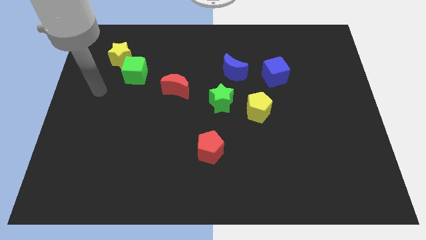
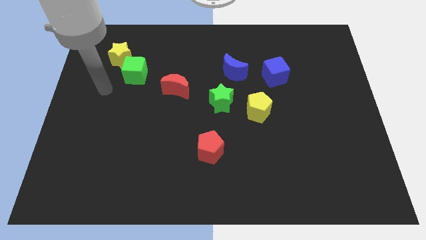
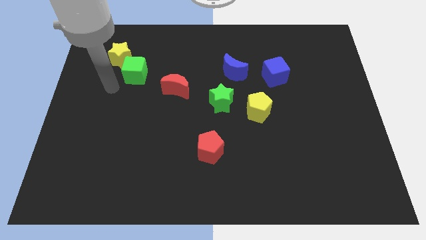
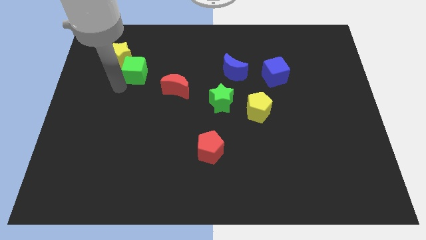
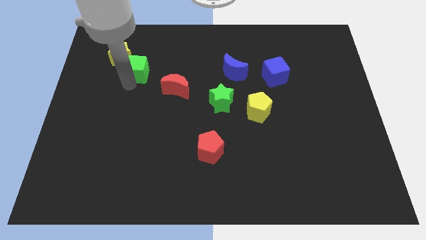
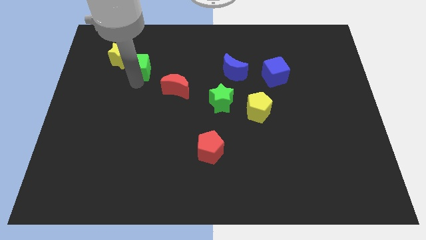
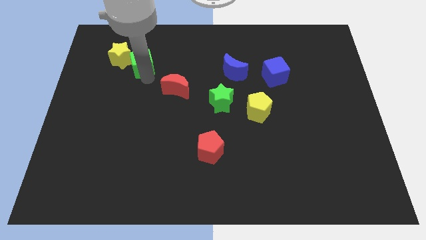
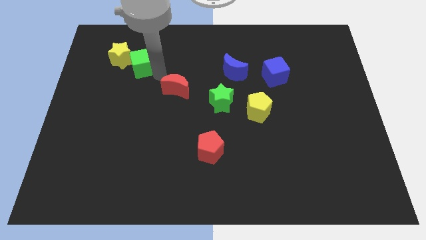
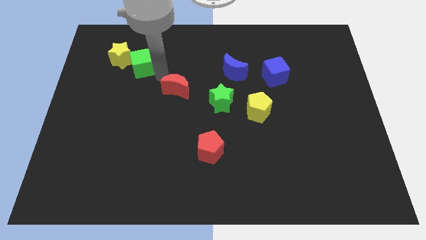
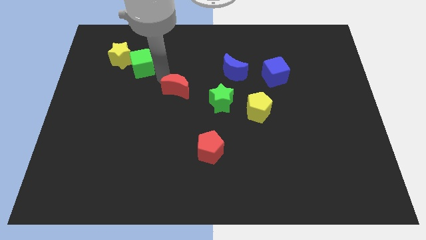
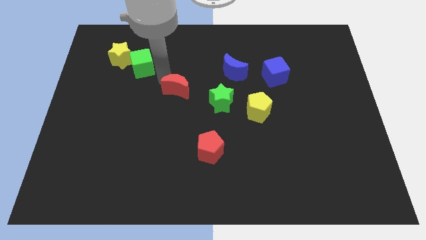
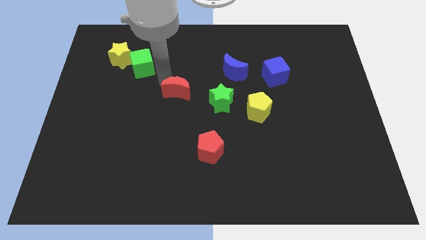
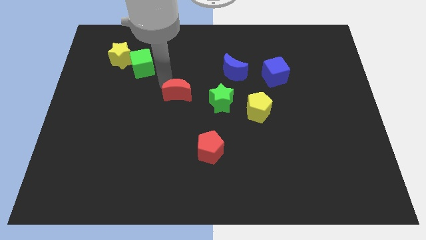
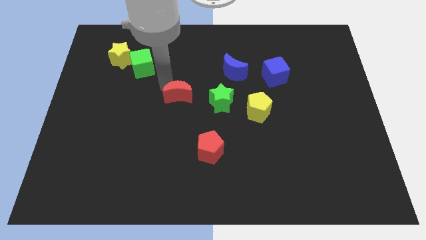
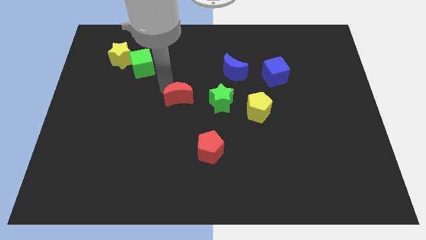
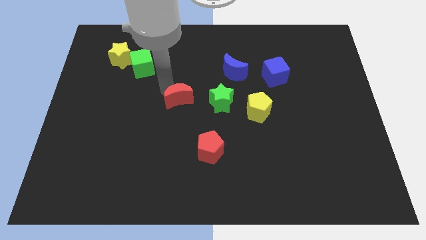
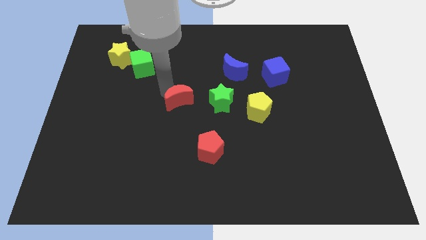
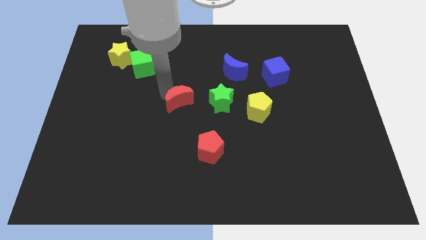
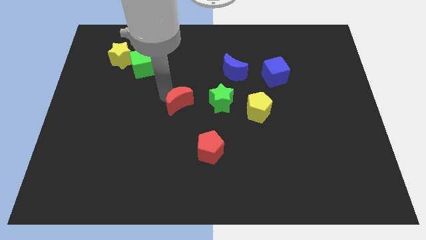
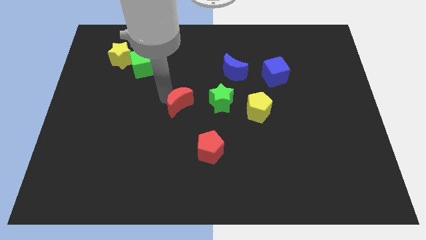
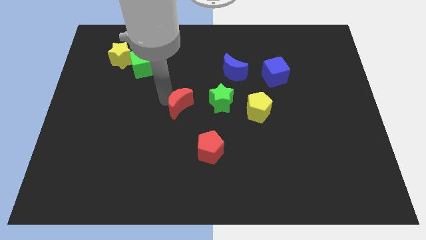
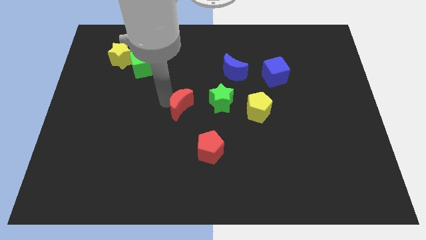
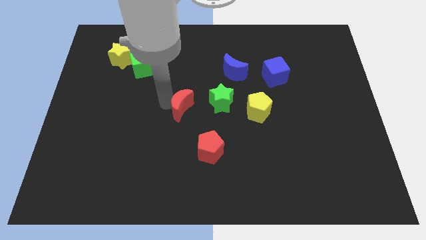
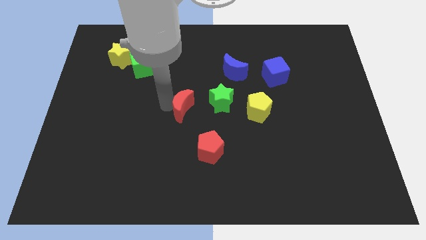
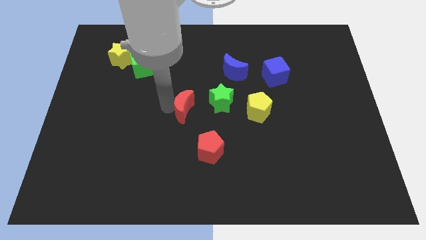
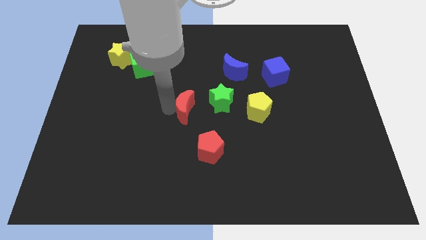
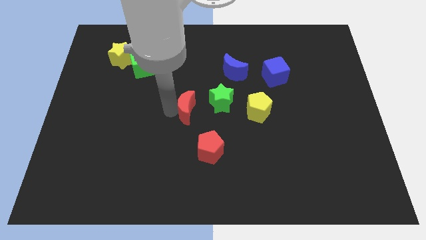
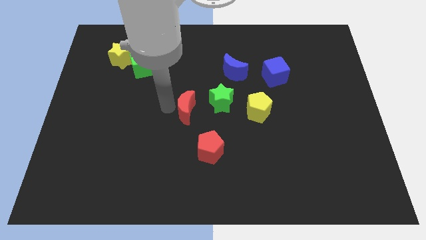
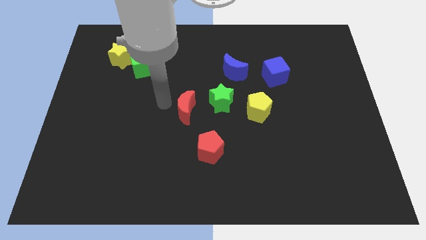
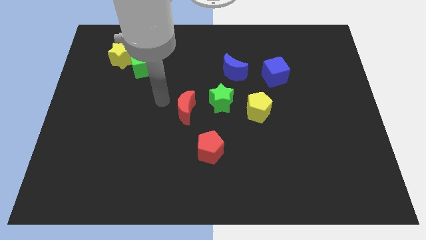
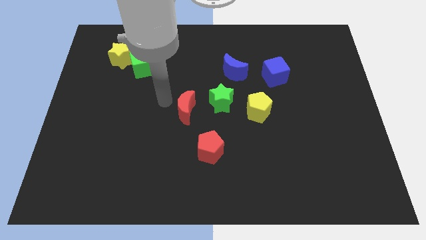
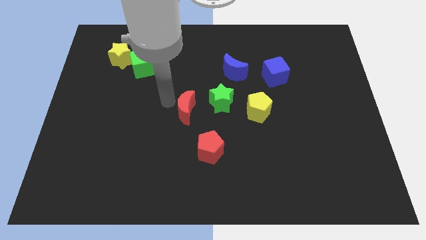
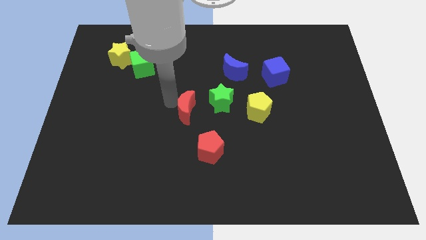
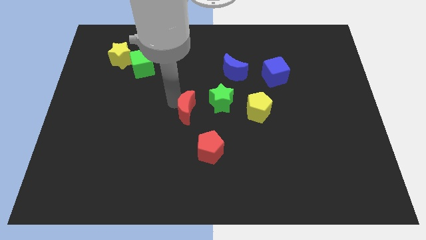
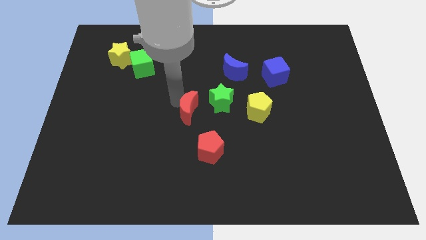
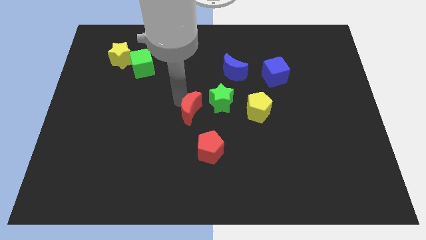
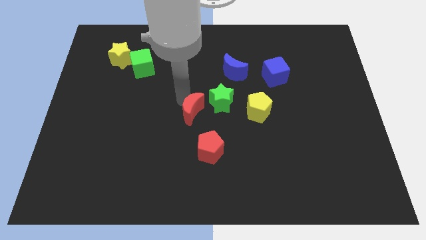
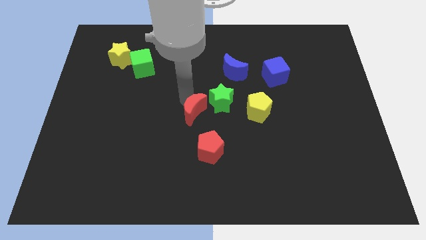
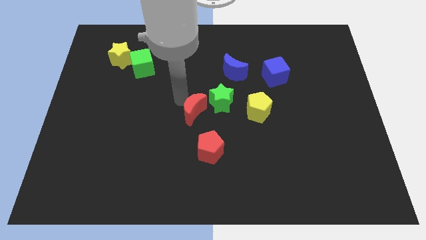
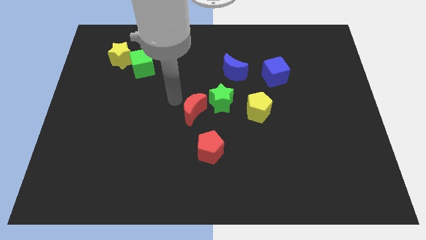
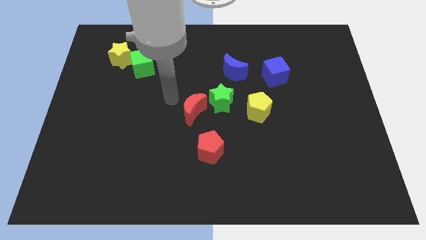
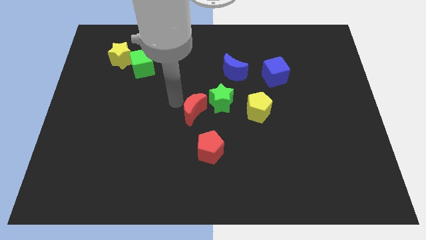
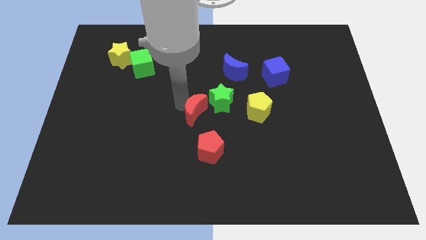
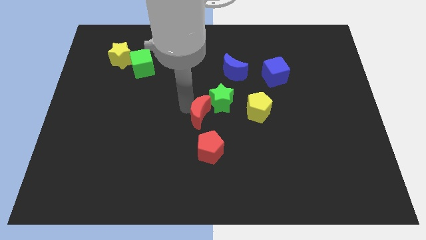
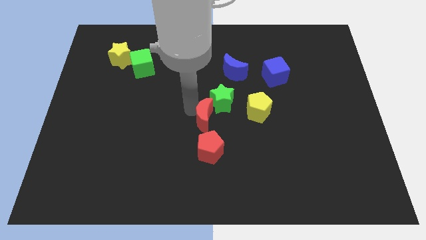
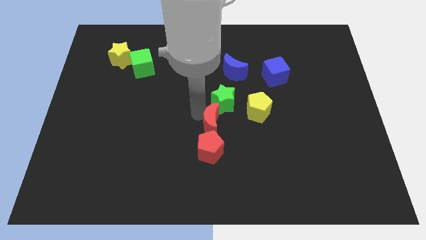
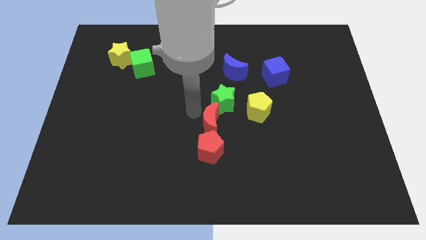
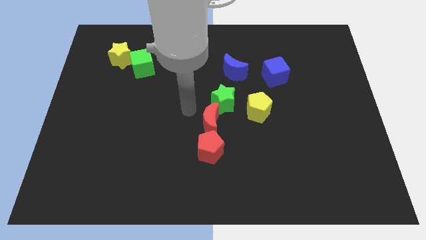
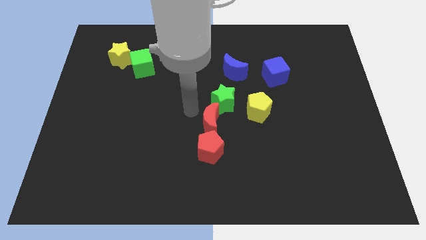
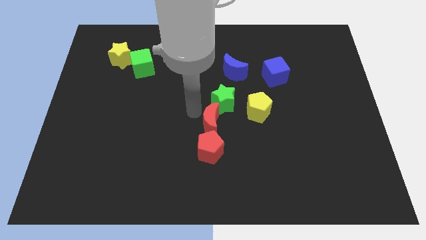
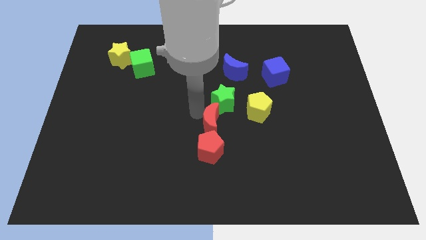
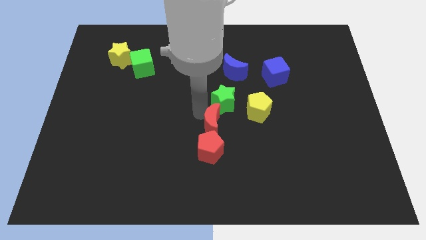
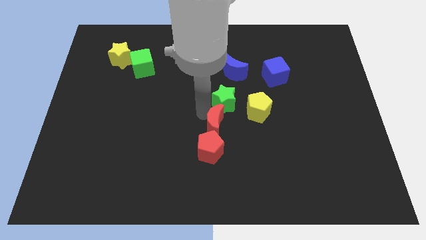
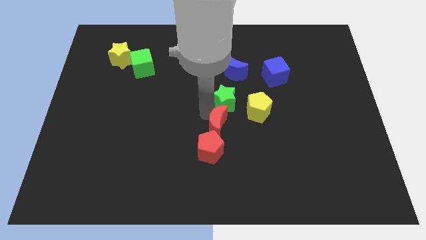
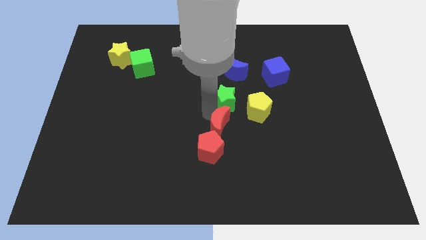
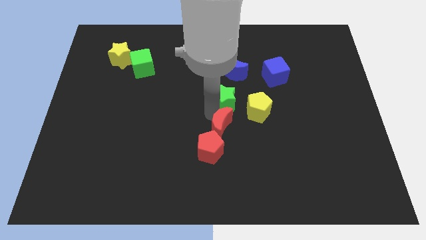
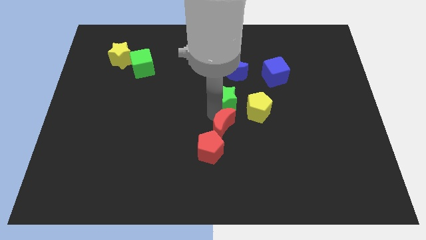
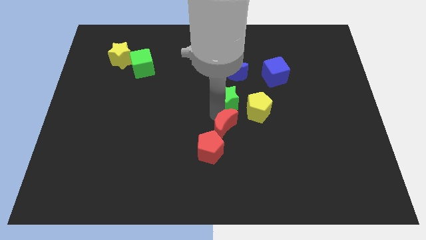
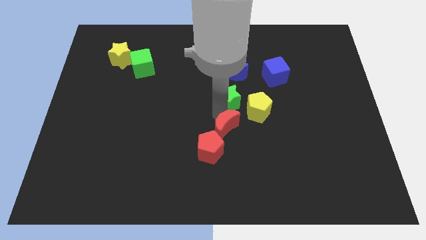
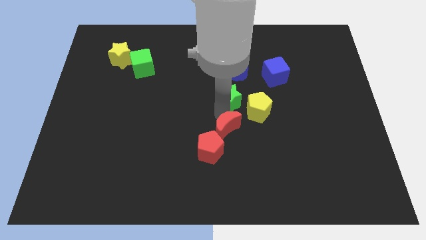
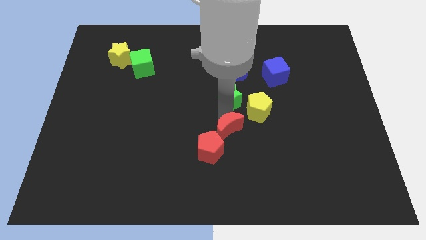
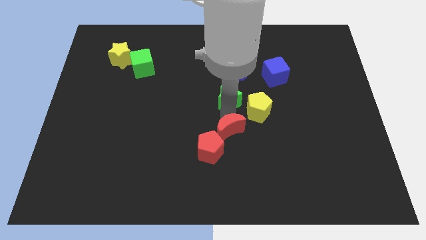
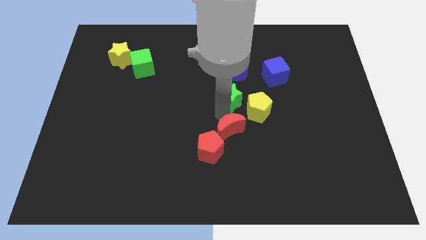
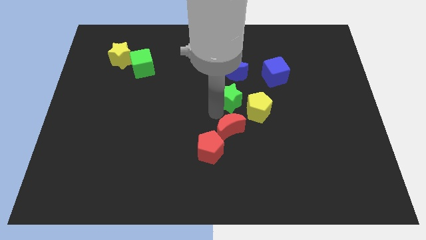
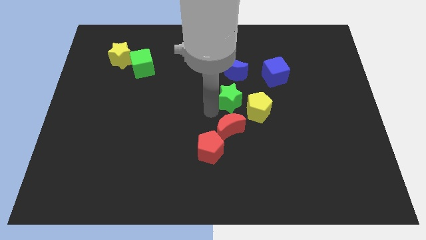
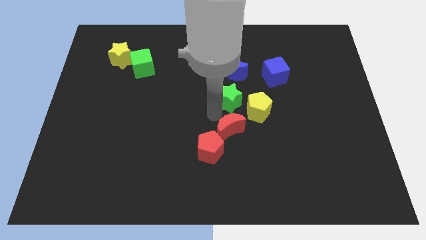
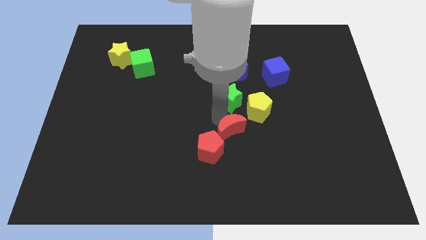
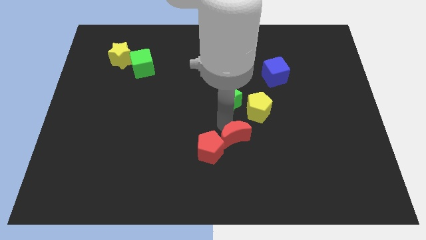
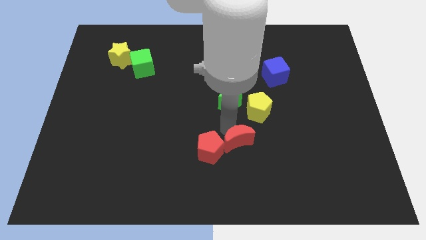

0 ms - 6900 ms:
slide the red moon down and then to the right

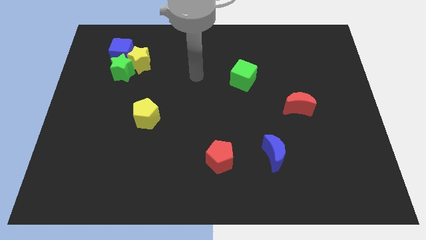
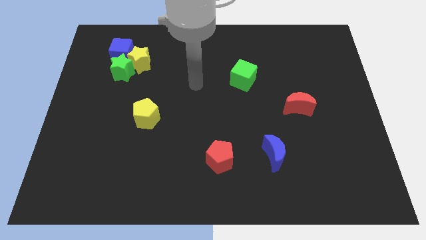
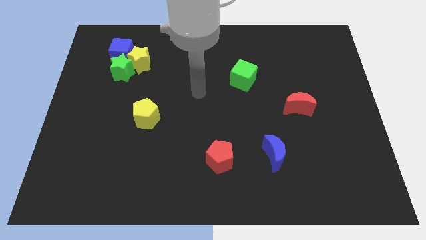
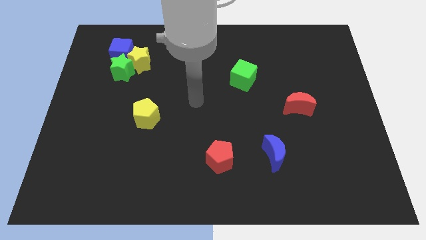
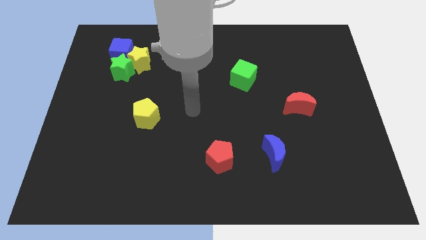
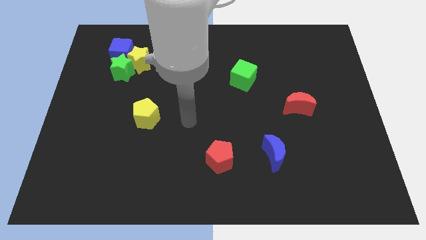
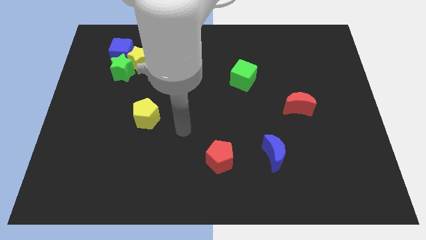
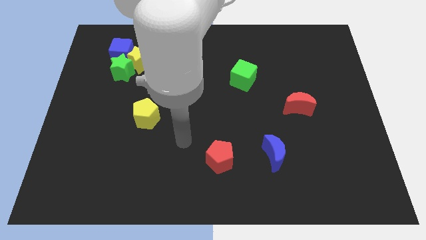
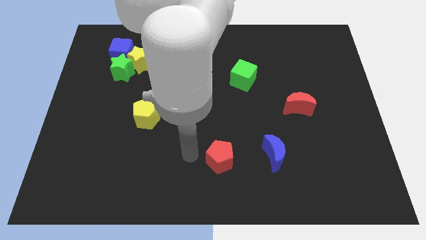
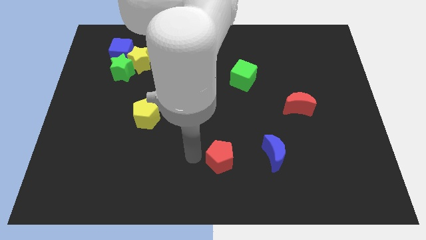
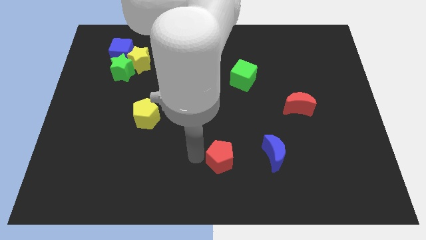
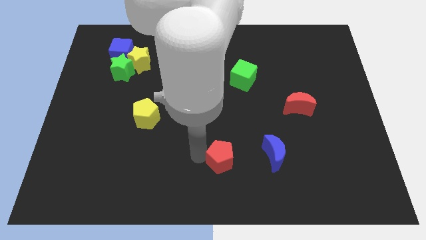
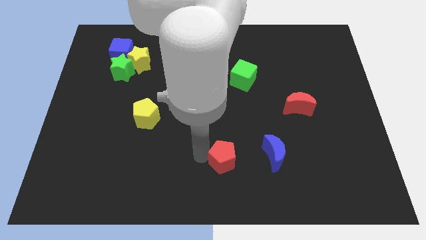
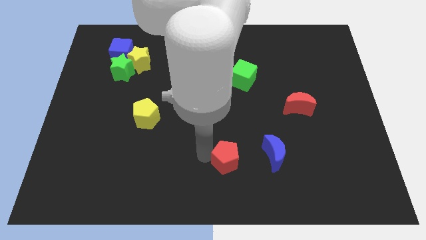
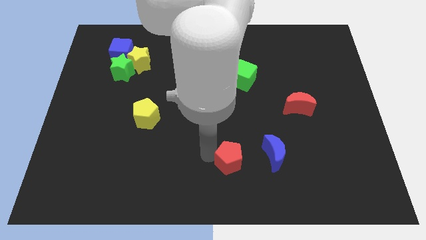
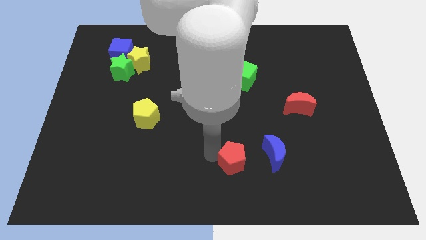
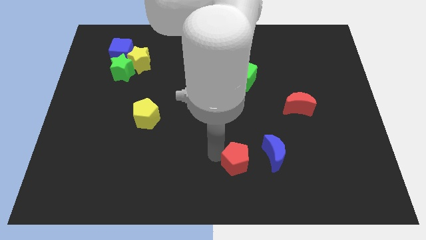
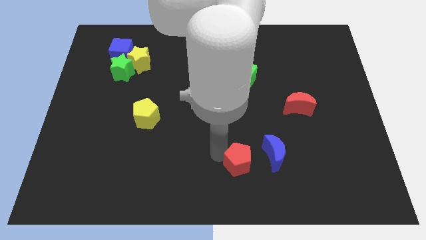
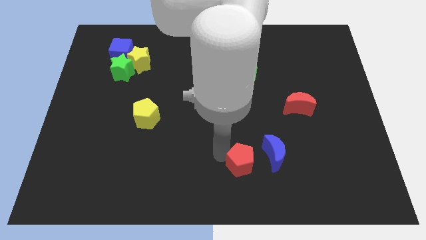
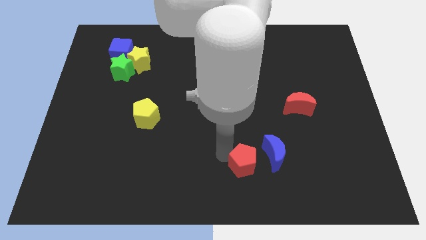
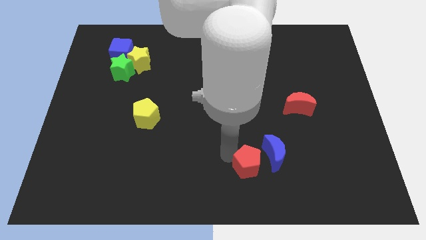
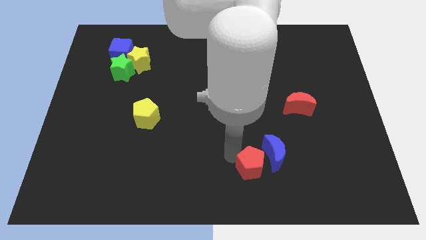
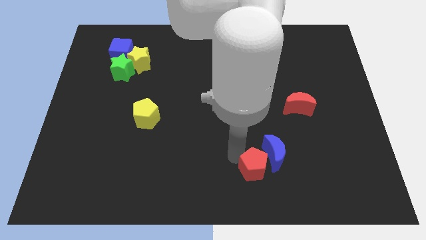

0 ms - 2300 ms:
move the red pentagon somewhat right
